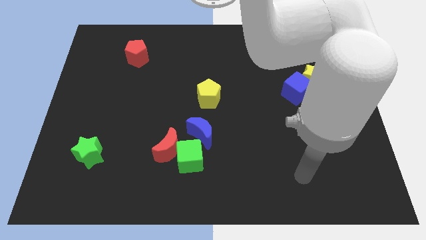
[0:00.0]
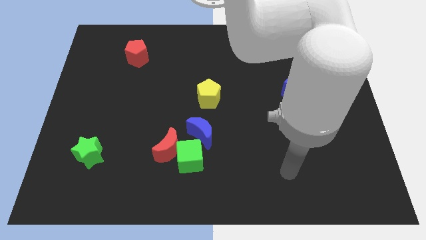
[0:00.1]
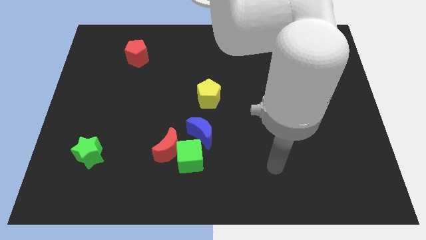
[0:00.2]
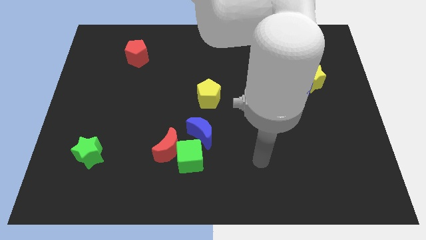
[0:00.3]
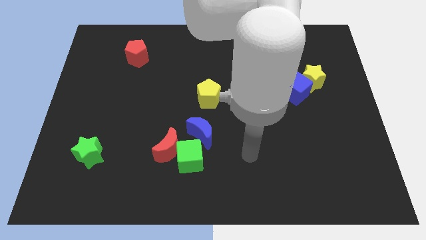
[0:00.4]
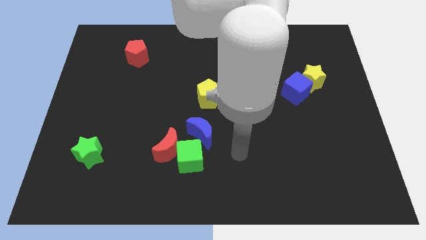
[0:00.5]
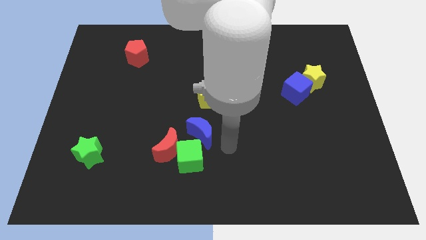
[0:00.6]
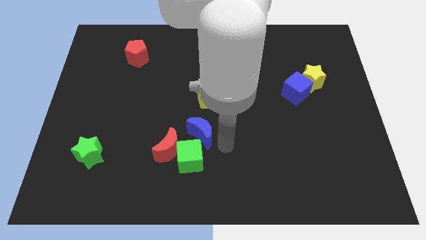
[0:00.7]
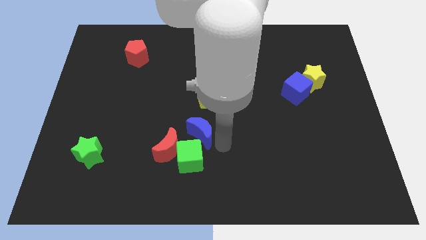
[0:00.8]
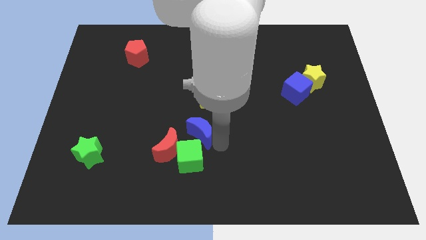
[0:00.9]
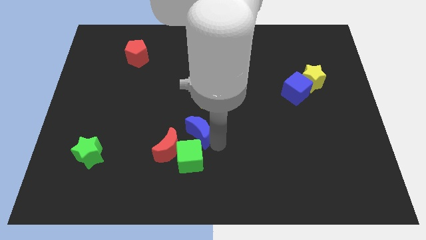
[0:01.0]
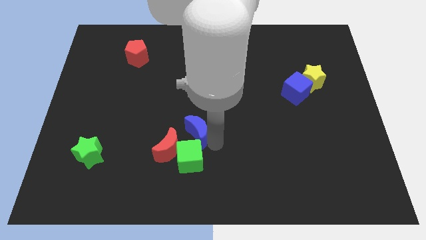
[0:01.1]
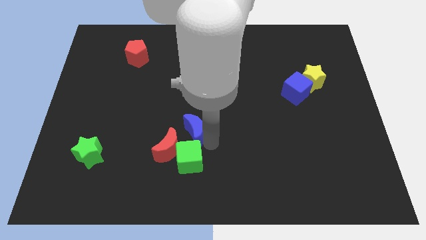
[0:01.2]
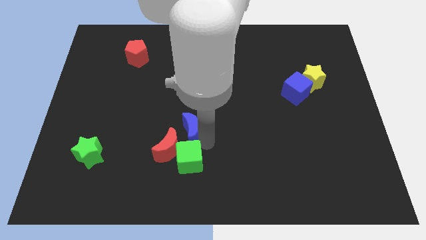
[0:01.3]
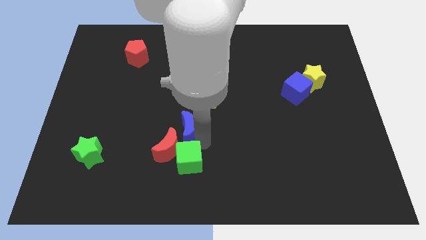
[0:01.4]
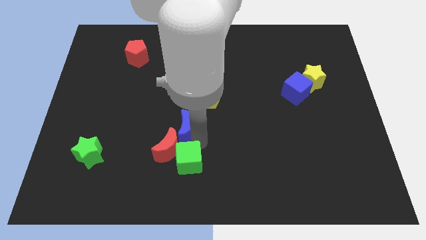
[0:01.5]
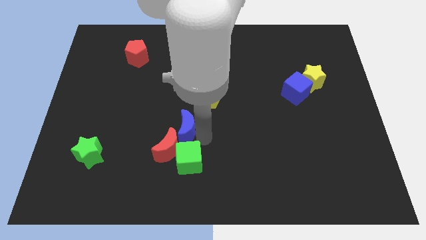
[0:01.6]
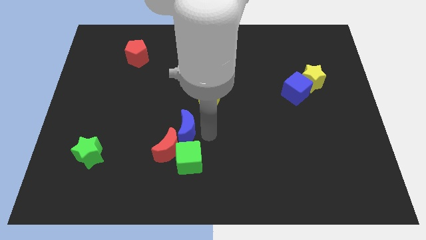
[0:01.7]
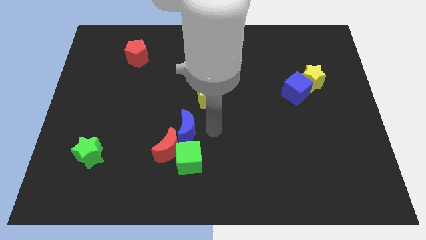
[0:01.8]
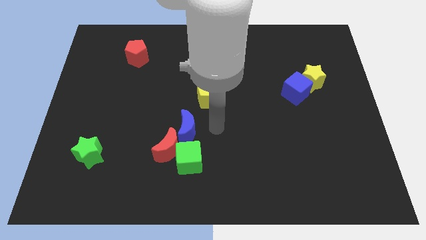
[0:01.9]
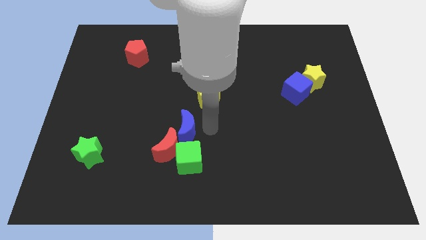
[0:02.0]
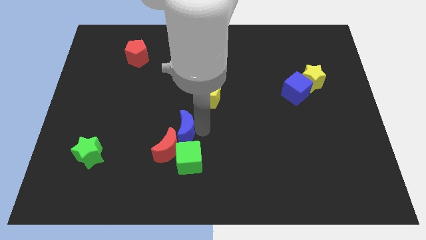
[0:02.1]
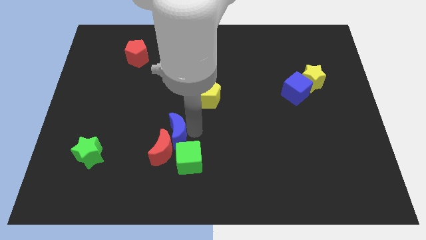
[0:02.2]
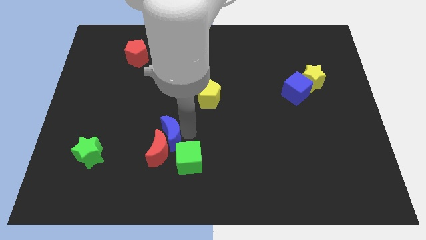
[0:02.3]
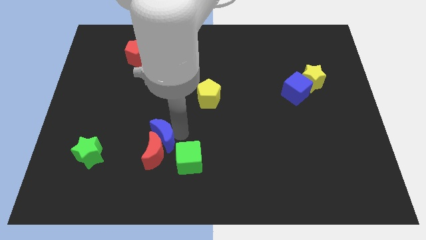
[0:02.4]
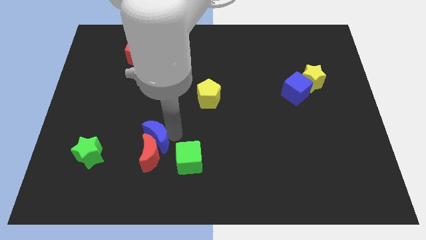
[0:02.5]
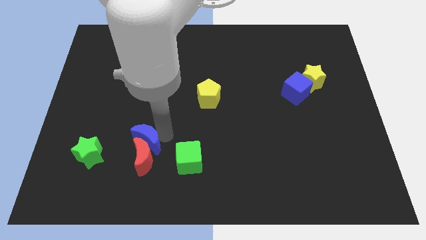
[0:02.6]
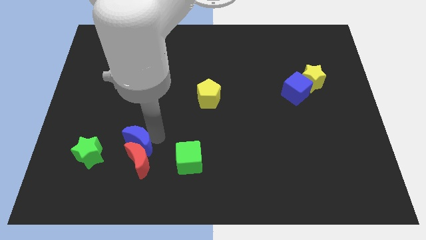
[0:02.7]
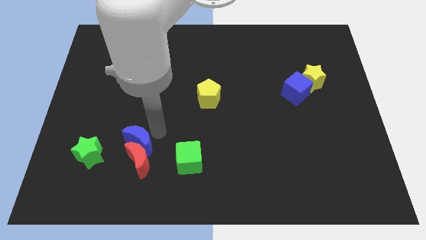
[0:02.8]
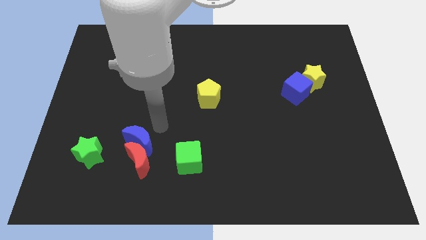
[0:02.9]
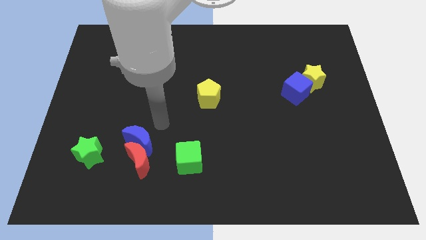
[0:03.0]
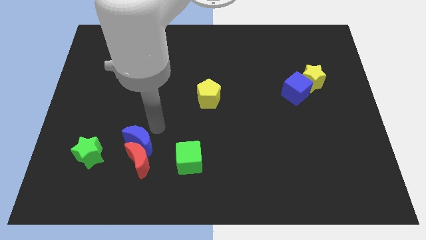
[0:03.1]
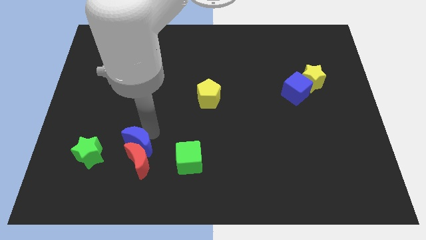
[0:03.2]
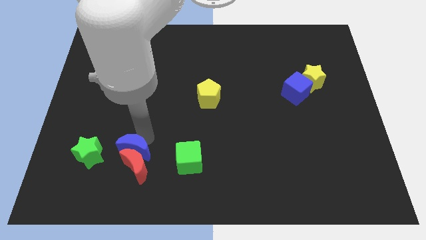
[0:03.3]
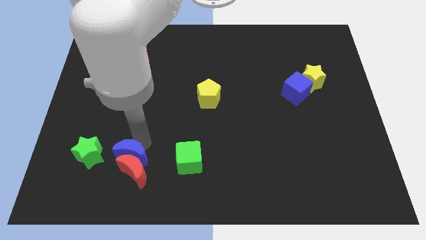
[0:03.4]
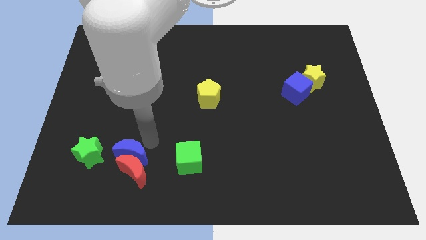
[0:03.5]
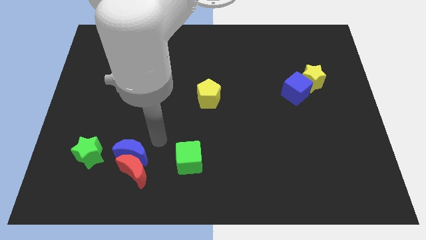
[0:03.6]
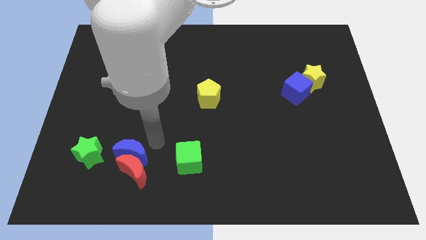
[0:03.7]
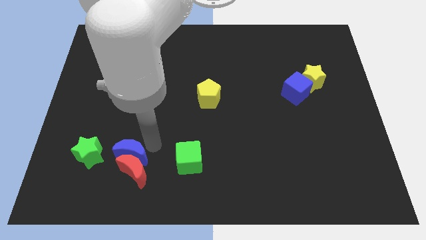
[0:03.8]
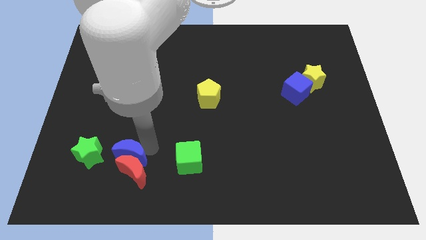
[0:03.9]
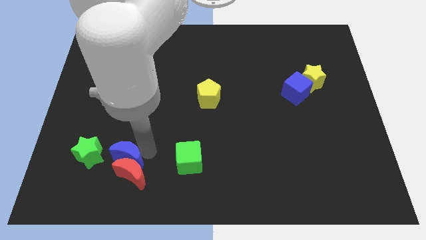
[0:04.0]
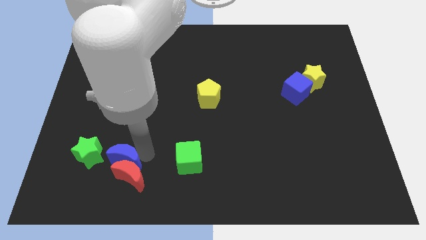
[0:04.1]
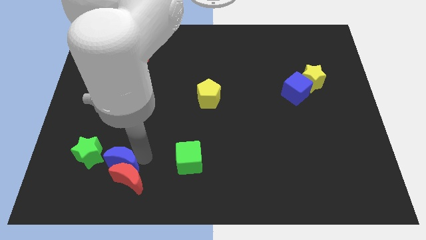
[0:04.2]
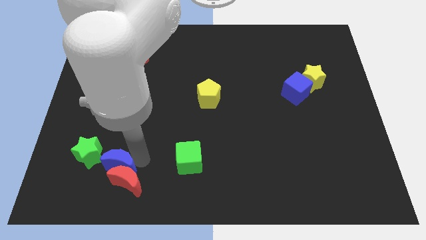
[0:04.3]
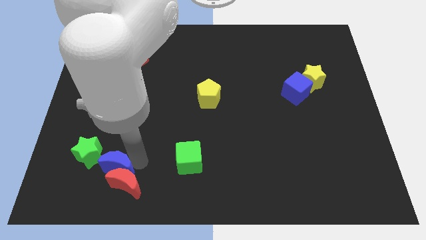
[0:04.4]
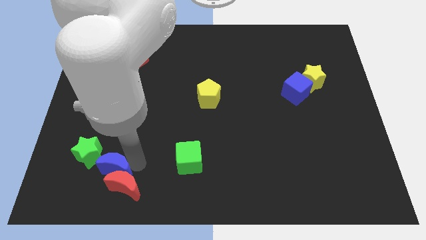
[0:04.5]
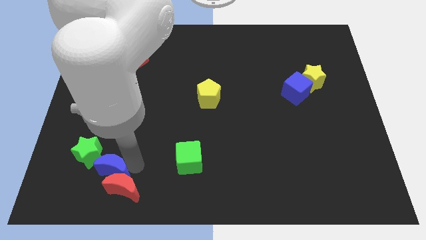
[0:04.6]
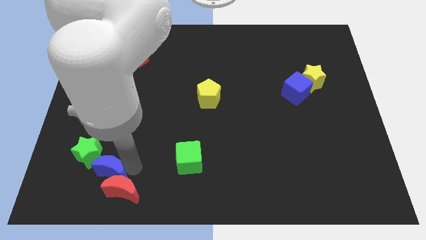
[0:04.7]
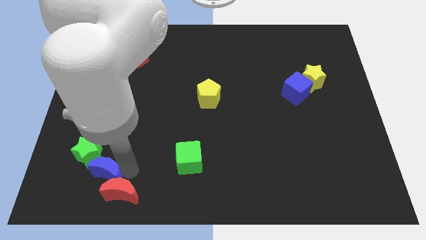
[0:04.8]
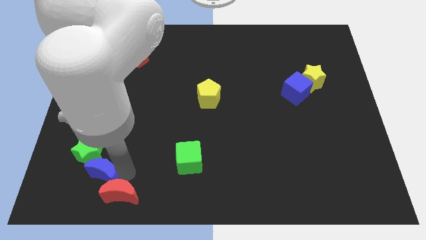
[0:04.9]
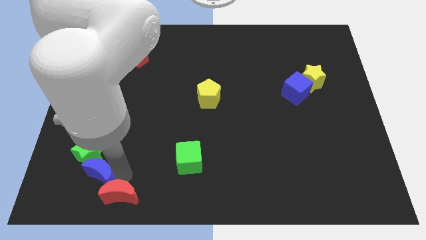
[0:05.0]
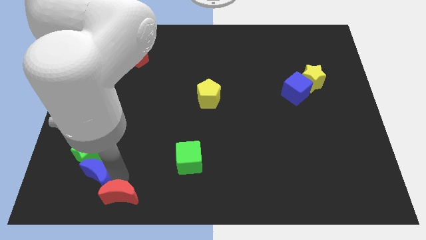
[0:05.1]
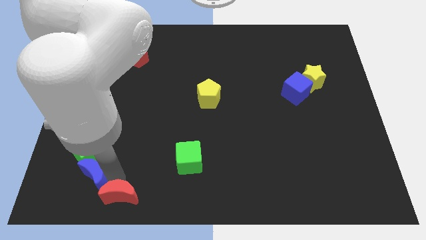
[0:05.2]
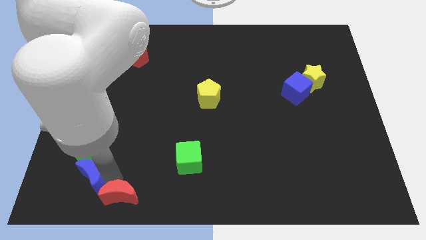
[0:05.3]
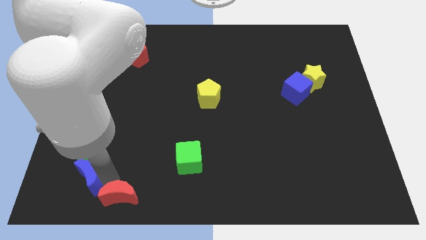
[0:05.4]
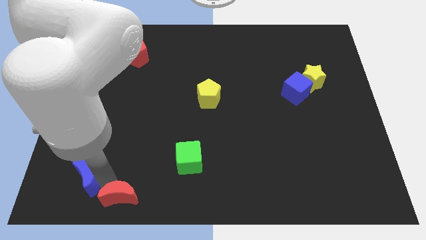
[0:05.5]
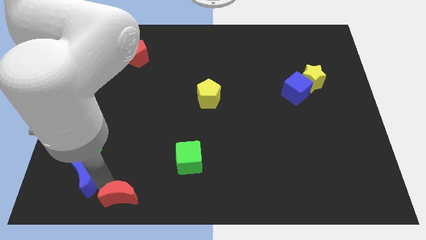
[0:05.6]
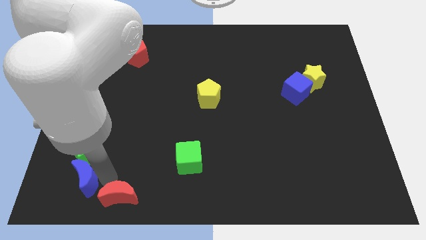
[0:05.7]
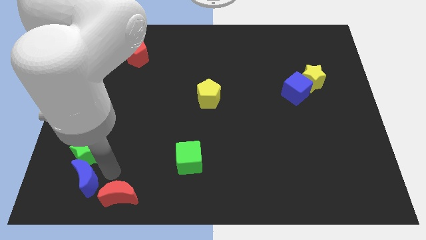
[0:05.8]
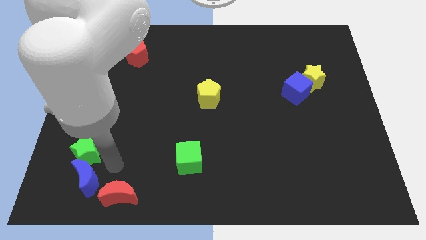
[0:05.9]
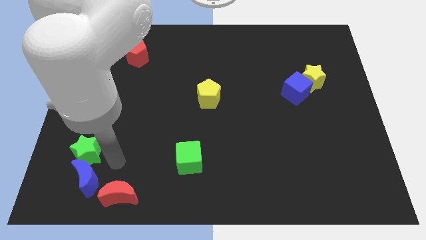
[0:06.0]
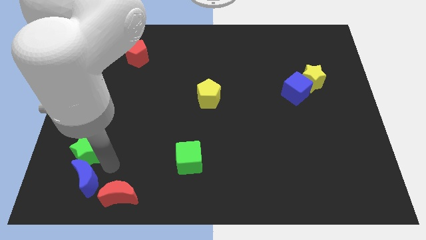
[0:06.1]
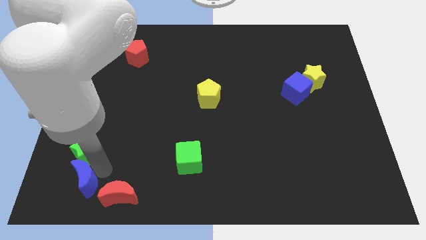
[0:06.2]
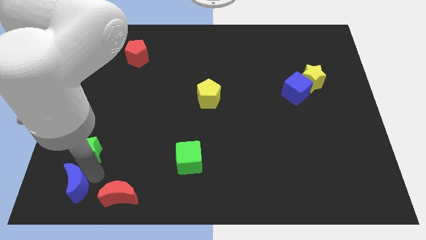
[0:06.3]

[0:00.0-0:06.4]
push the blue moon to the bottom left corner
